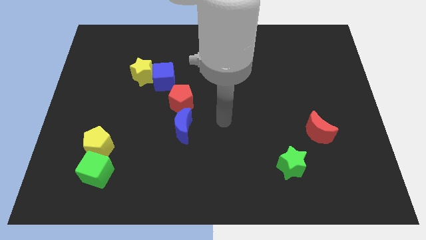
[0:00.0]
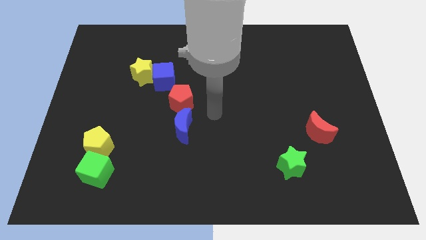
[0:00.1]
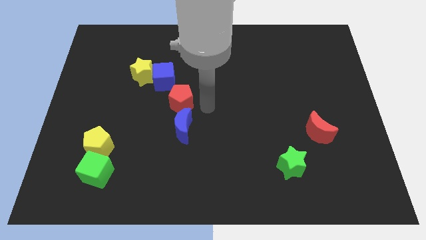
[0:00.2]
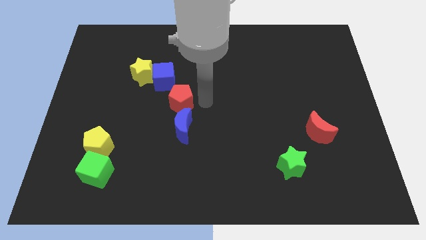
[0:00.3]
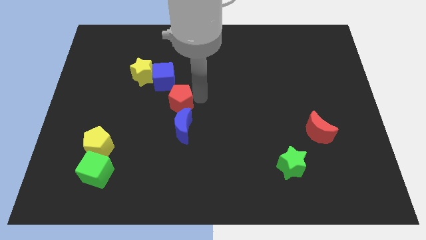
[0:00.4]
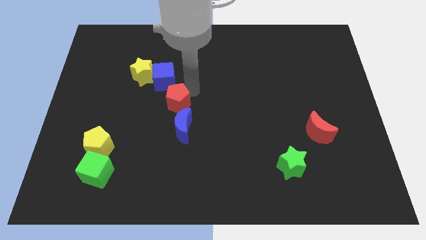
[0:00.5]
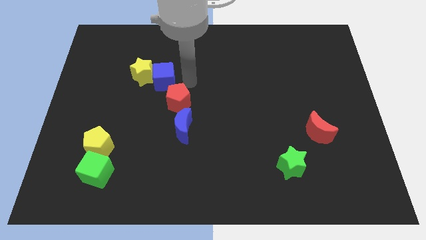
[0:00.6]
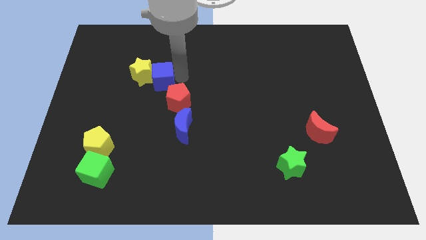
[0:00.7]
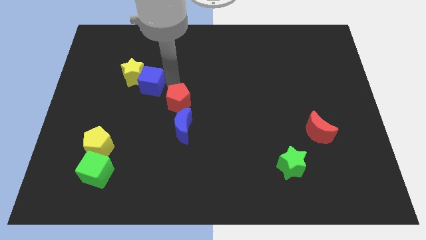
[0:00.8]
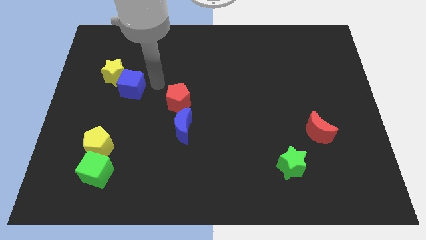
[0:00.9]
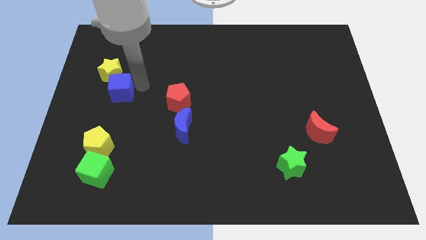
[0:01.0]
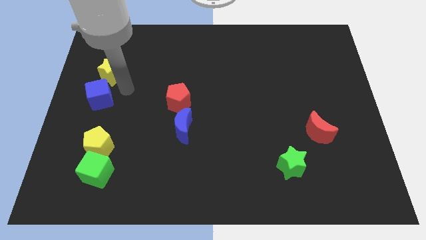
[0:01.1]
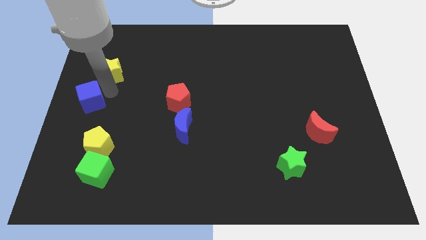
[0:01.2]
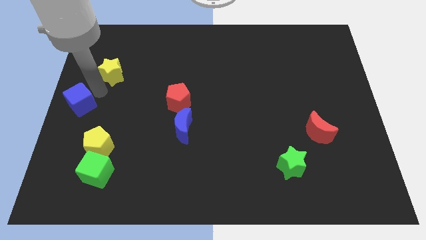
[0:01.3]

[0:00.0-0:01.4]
separate the yellow star from the blue cube

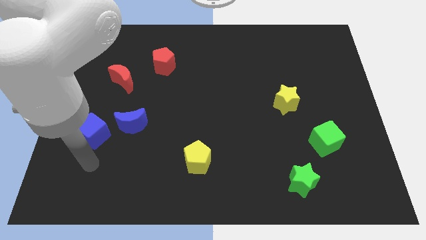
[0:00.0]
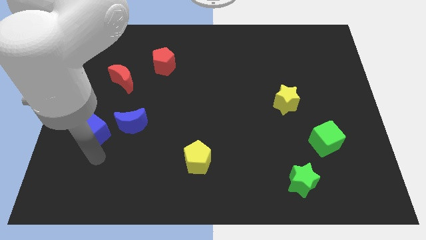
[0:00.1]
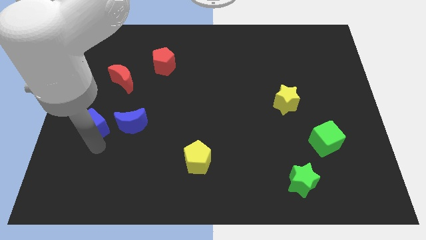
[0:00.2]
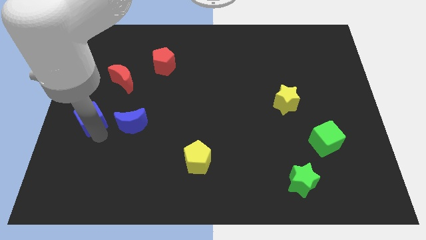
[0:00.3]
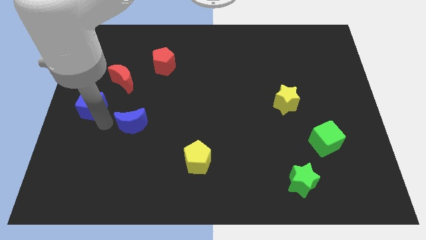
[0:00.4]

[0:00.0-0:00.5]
pull the blue moon apart from the blue cube

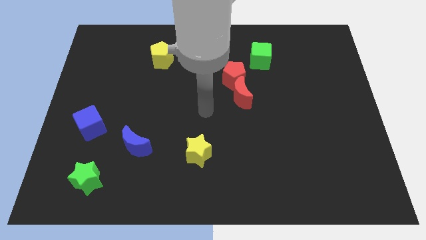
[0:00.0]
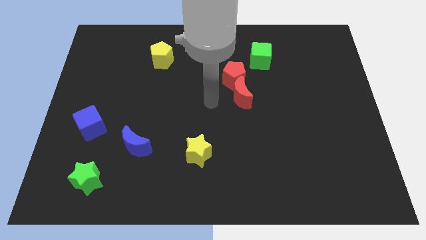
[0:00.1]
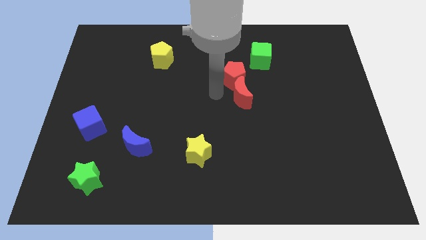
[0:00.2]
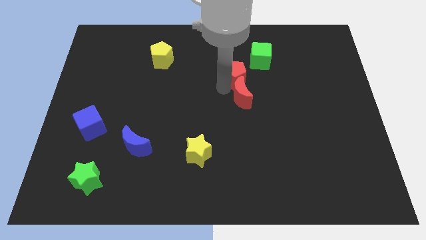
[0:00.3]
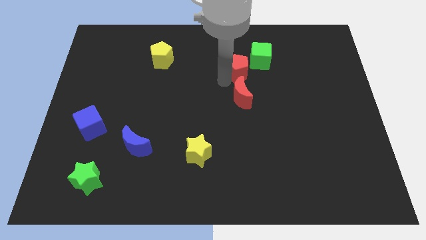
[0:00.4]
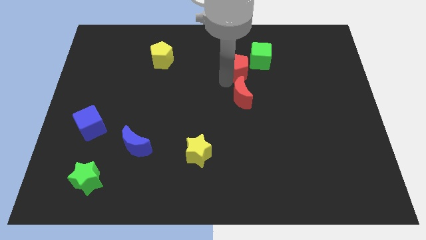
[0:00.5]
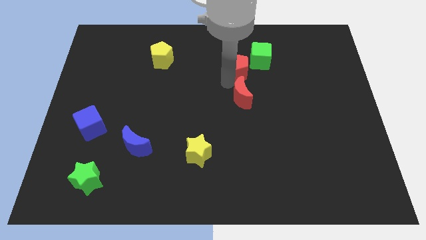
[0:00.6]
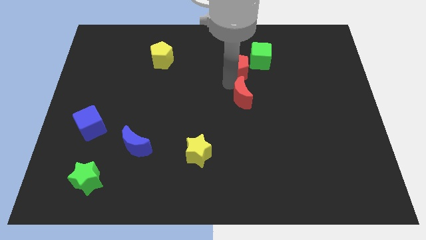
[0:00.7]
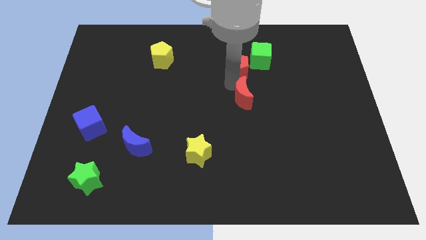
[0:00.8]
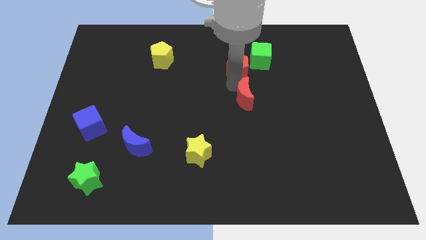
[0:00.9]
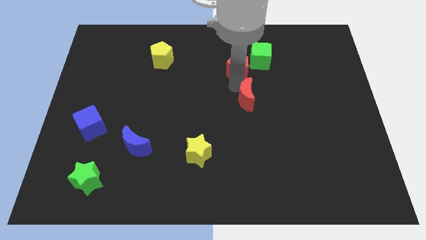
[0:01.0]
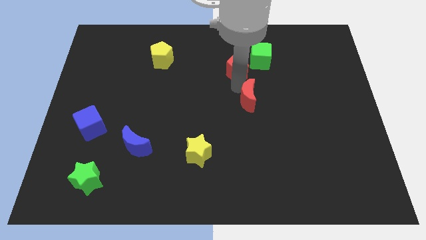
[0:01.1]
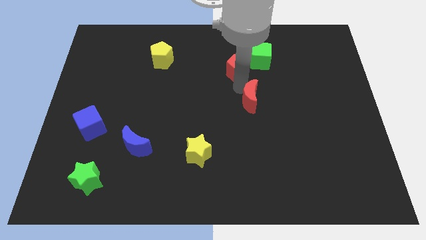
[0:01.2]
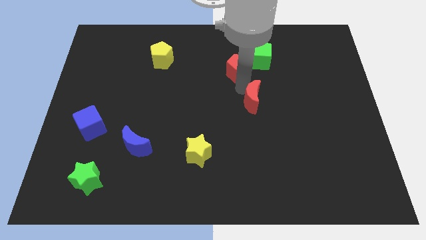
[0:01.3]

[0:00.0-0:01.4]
separate the red moon from the red pentagon

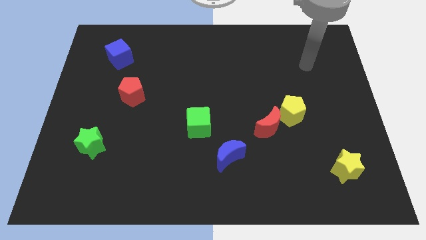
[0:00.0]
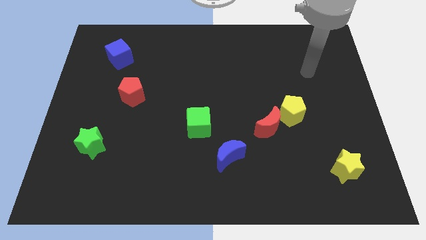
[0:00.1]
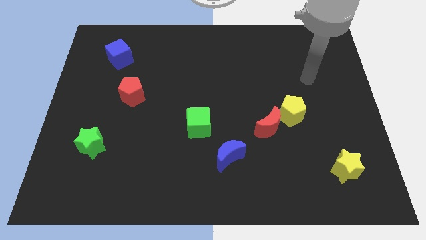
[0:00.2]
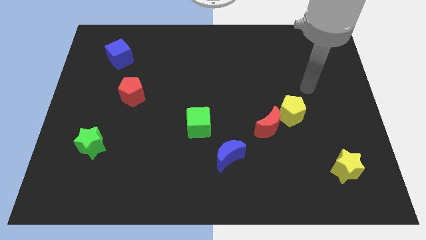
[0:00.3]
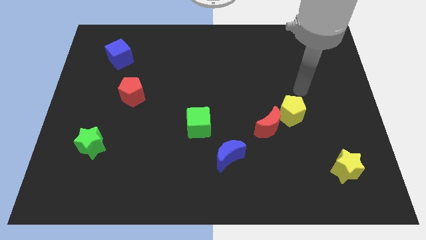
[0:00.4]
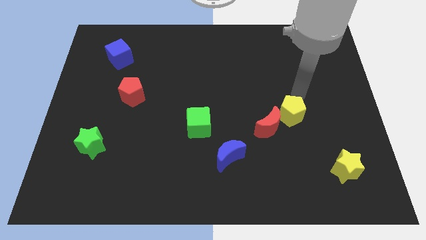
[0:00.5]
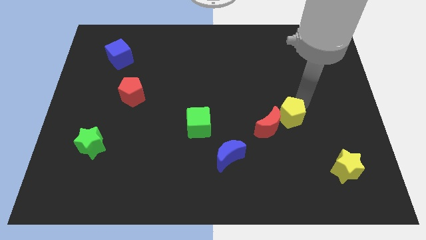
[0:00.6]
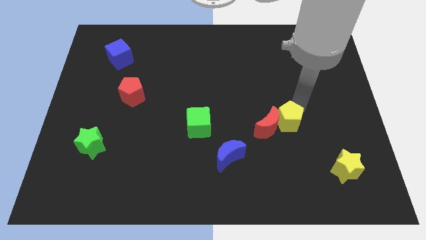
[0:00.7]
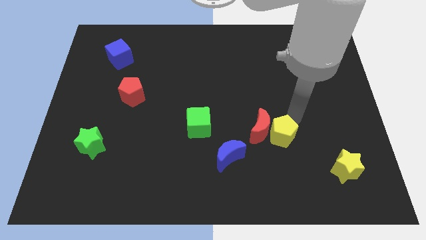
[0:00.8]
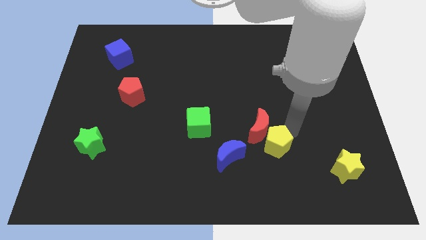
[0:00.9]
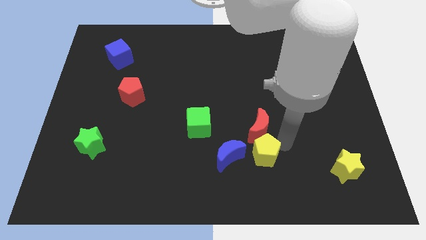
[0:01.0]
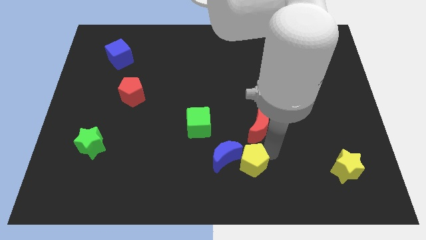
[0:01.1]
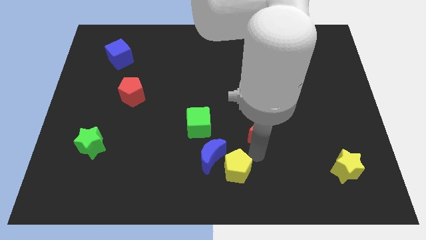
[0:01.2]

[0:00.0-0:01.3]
separate the red moon from the yellow pentagon

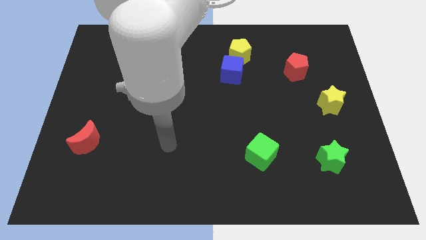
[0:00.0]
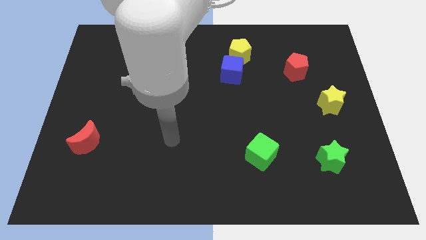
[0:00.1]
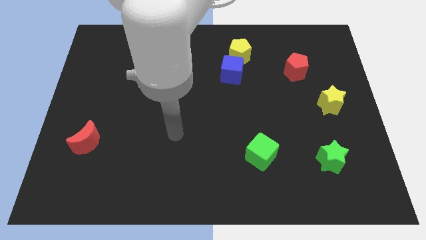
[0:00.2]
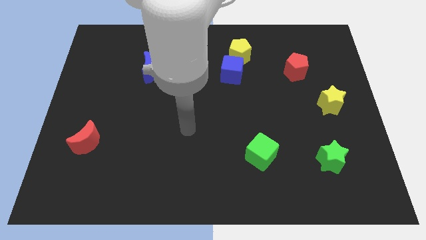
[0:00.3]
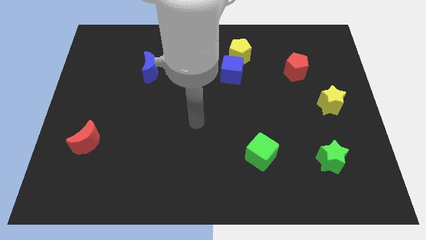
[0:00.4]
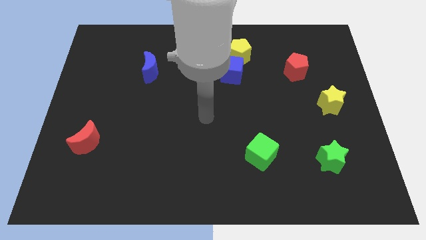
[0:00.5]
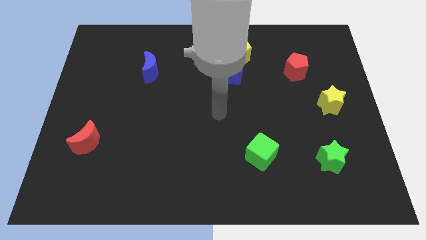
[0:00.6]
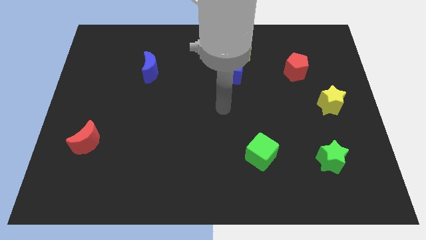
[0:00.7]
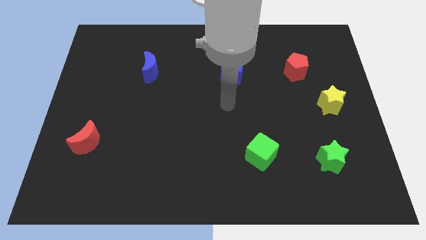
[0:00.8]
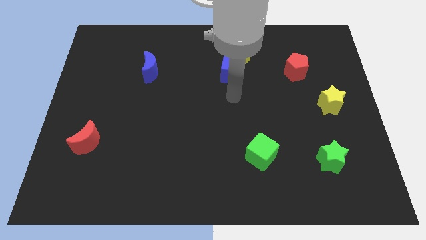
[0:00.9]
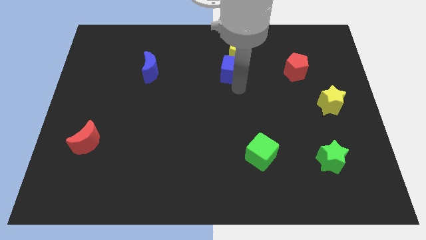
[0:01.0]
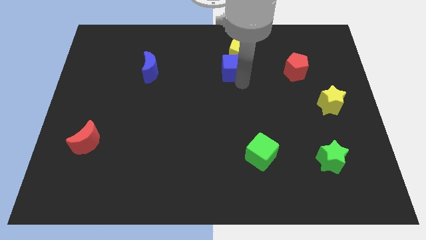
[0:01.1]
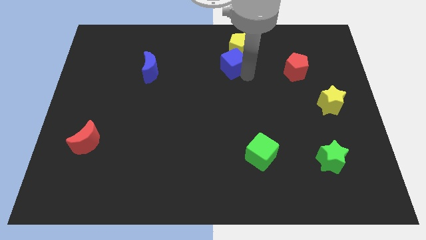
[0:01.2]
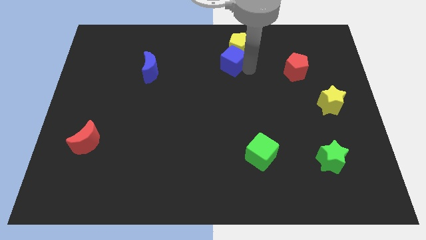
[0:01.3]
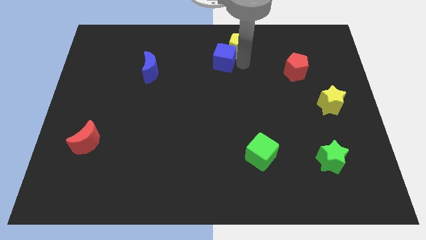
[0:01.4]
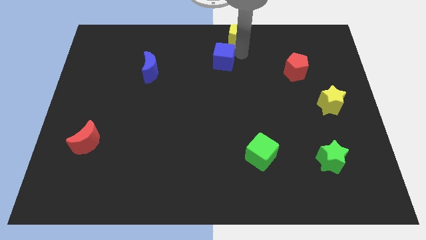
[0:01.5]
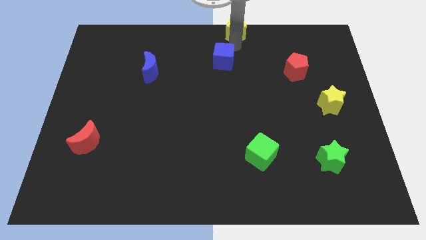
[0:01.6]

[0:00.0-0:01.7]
separate the blue cube from the yellow pentagon

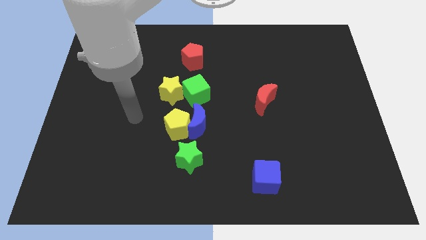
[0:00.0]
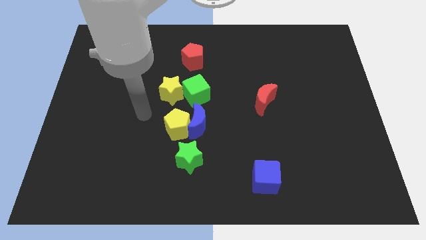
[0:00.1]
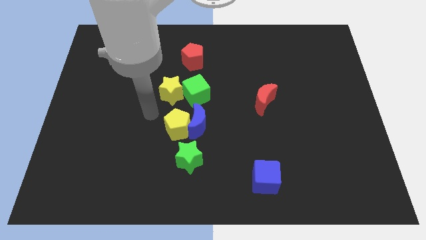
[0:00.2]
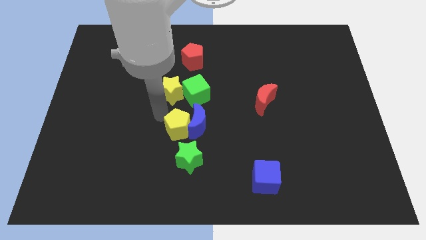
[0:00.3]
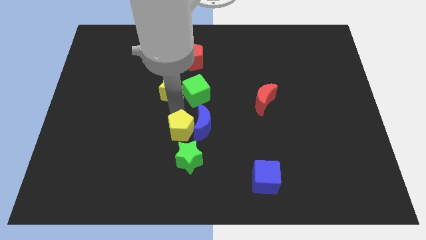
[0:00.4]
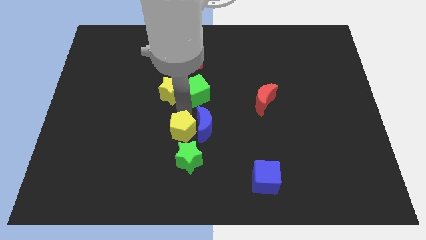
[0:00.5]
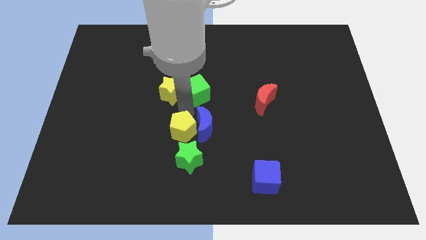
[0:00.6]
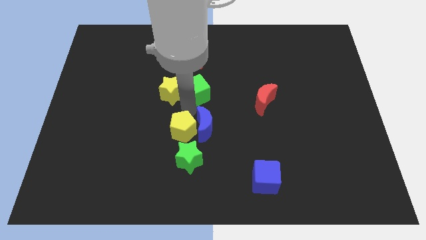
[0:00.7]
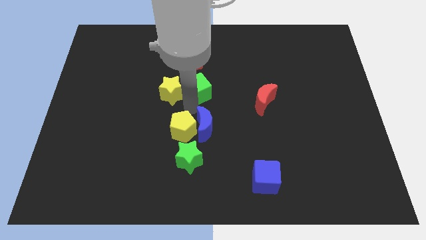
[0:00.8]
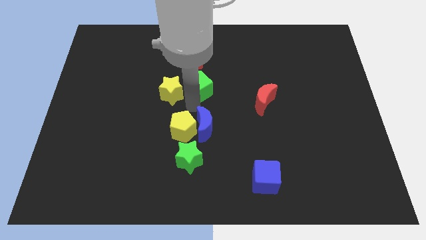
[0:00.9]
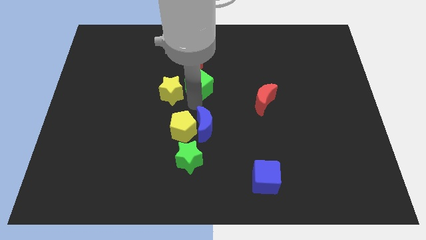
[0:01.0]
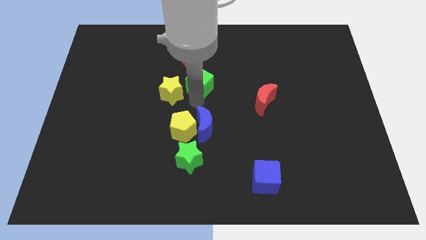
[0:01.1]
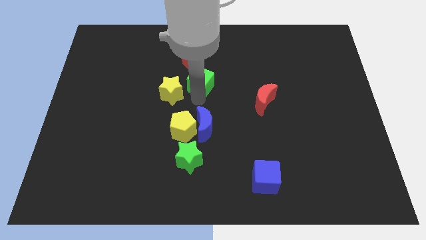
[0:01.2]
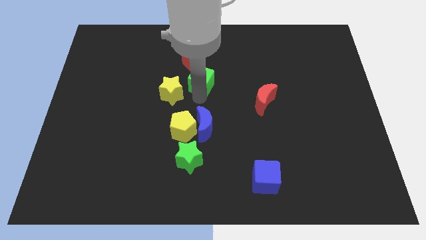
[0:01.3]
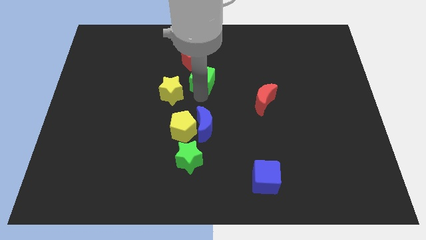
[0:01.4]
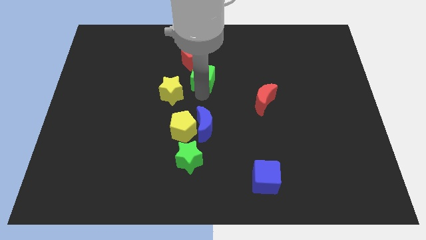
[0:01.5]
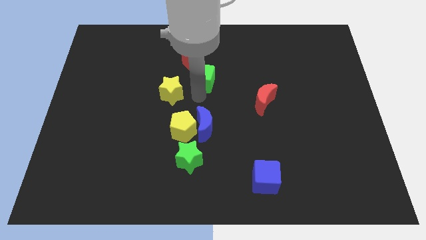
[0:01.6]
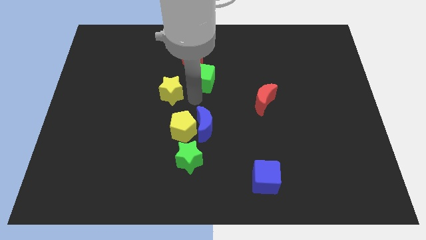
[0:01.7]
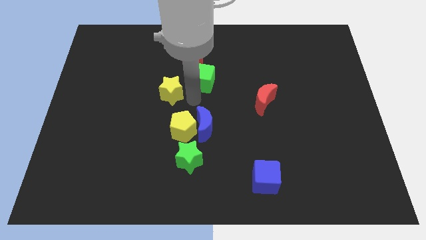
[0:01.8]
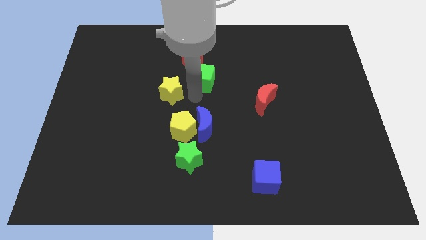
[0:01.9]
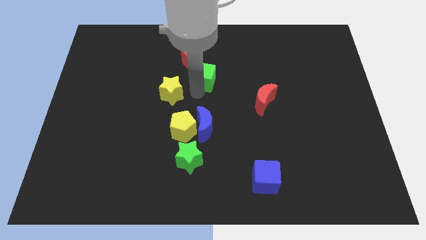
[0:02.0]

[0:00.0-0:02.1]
separate the green cube from the yellow star and blue moon

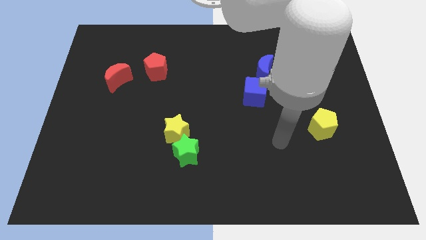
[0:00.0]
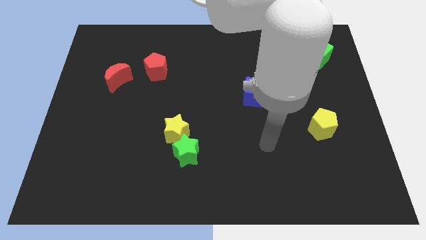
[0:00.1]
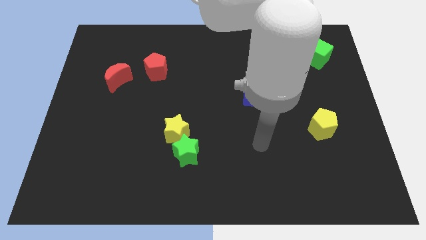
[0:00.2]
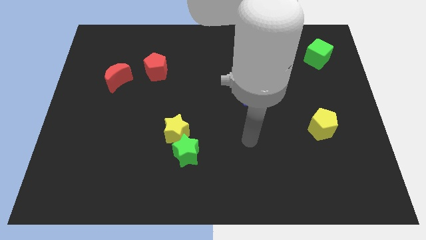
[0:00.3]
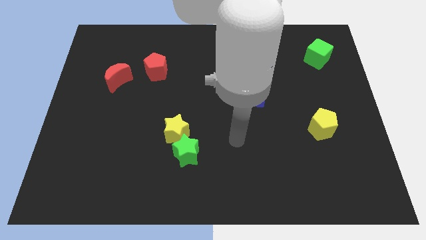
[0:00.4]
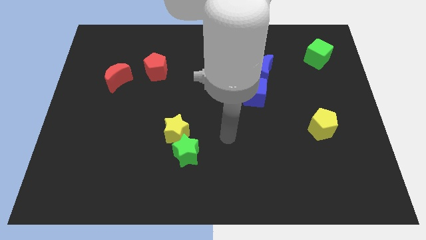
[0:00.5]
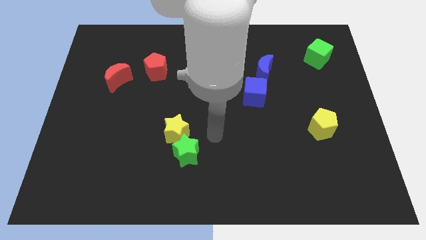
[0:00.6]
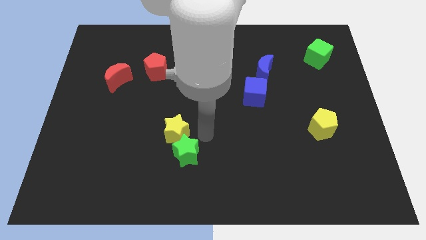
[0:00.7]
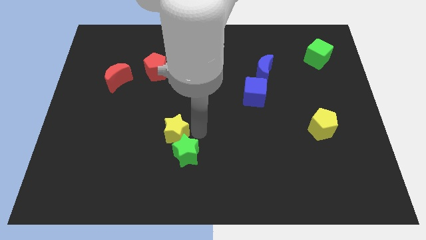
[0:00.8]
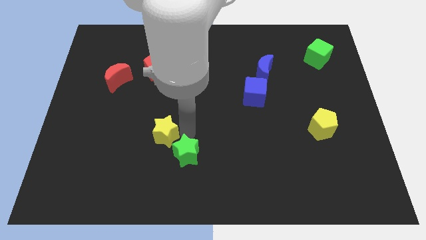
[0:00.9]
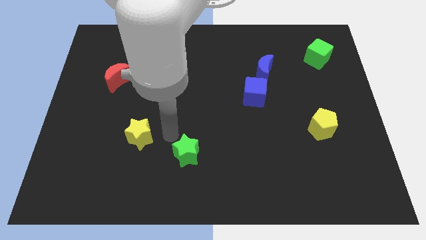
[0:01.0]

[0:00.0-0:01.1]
separate the green star from the yellow star
